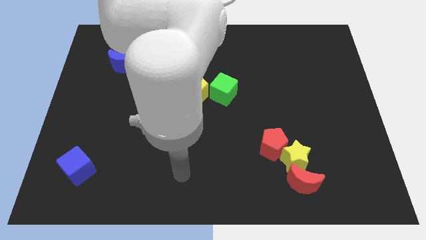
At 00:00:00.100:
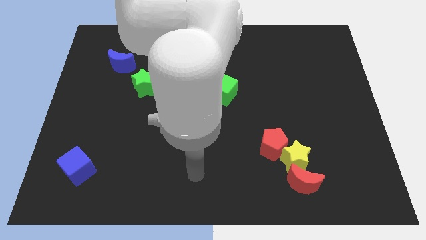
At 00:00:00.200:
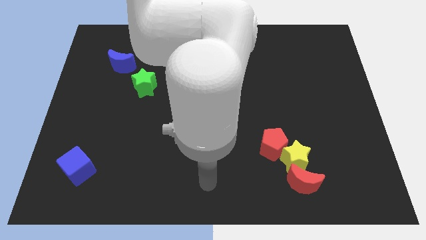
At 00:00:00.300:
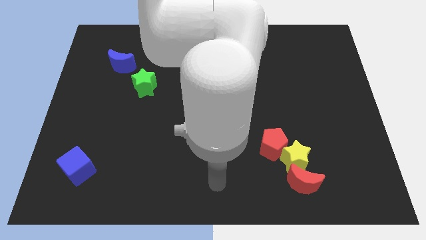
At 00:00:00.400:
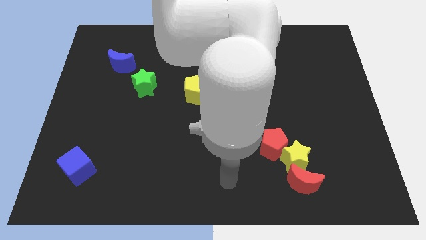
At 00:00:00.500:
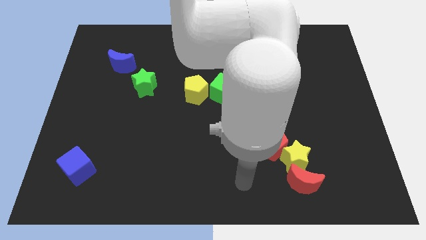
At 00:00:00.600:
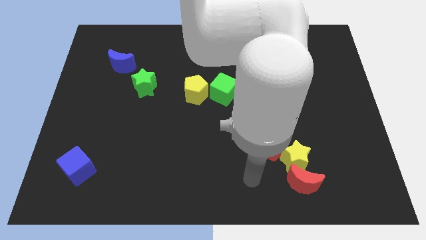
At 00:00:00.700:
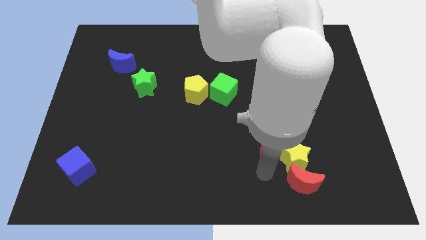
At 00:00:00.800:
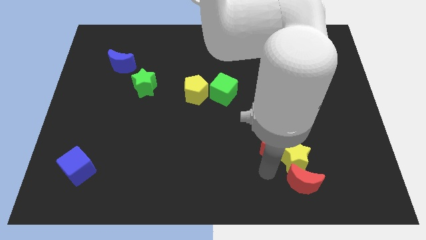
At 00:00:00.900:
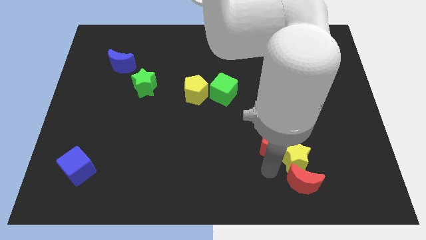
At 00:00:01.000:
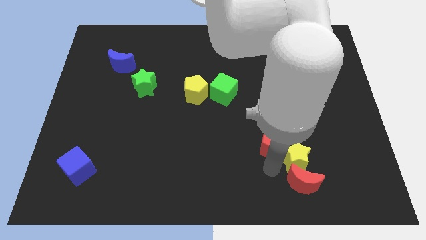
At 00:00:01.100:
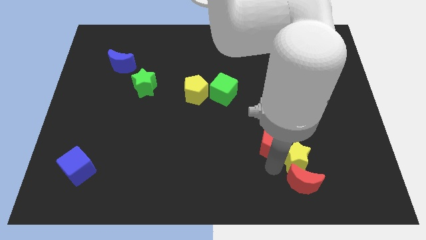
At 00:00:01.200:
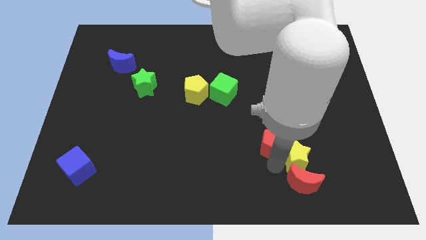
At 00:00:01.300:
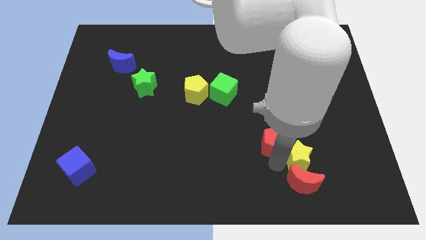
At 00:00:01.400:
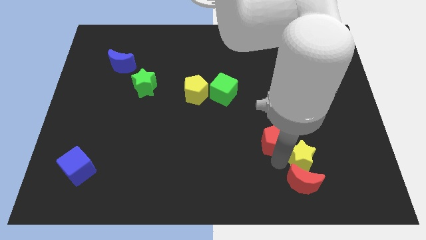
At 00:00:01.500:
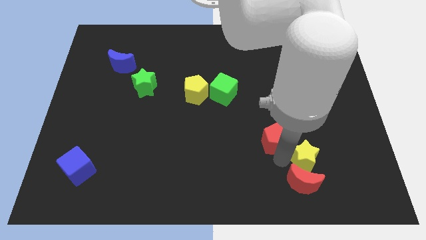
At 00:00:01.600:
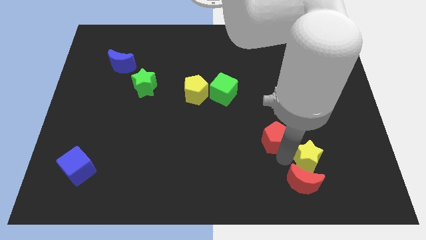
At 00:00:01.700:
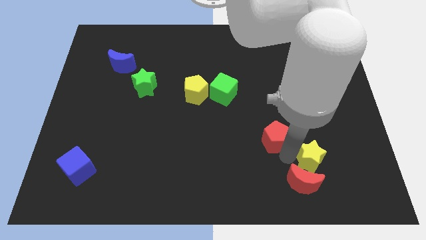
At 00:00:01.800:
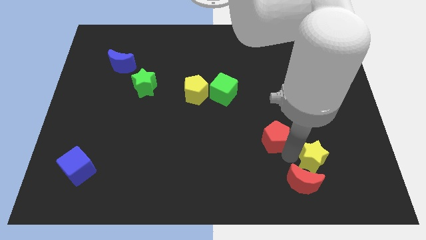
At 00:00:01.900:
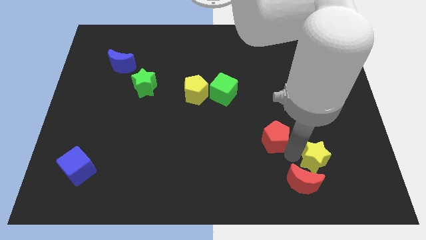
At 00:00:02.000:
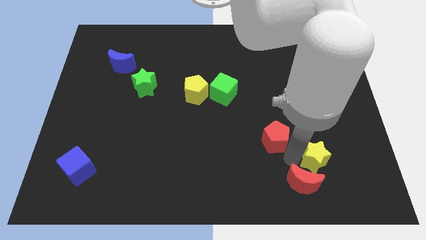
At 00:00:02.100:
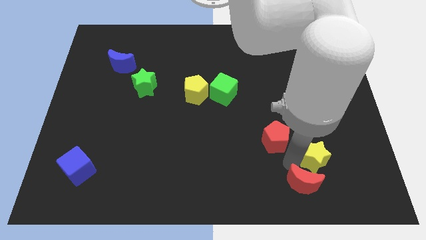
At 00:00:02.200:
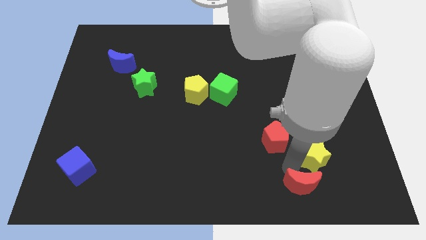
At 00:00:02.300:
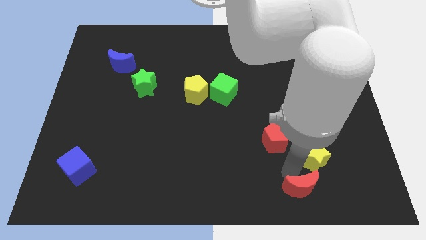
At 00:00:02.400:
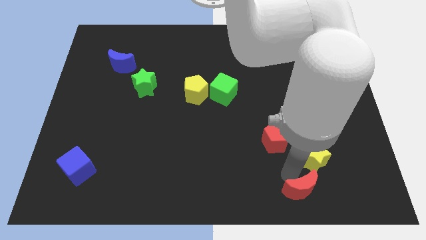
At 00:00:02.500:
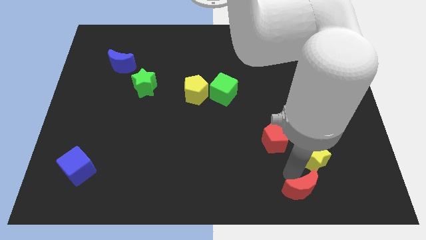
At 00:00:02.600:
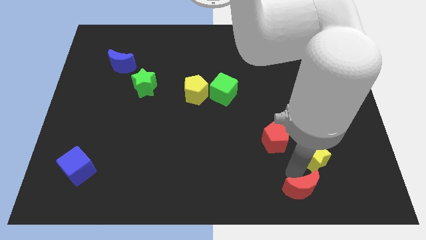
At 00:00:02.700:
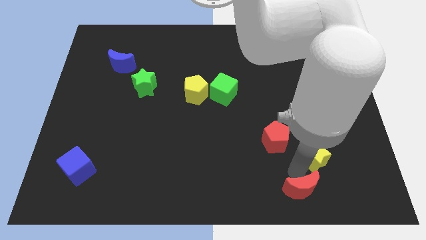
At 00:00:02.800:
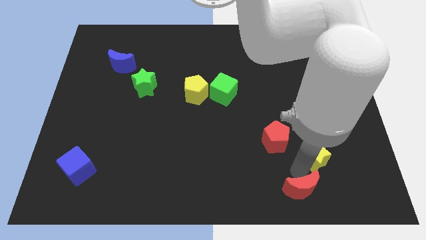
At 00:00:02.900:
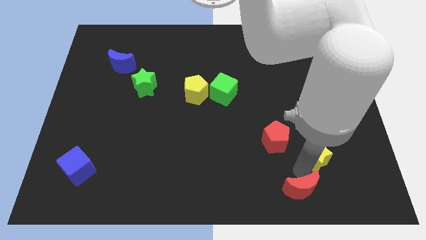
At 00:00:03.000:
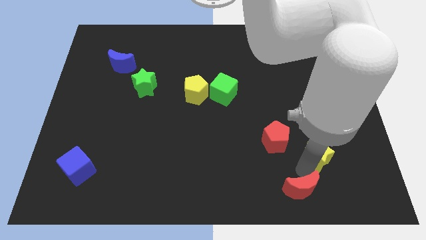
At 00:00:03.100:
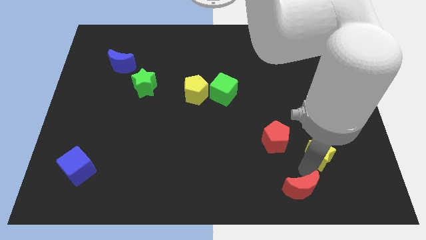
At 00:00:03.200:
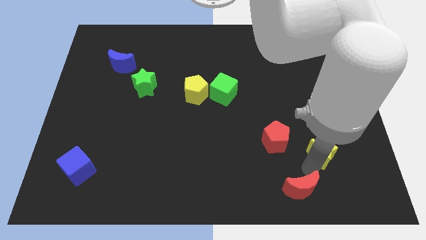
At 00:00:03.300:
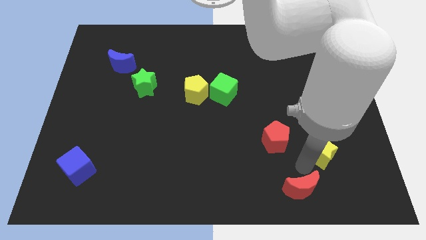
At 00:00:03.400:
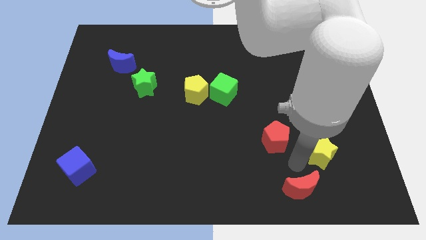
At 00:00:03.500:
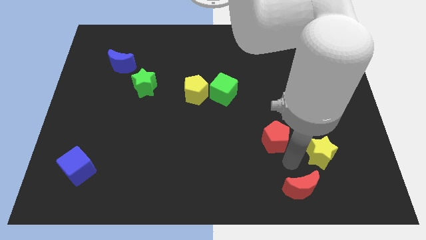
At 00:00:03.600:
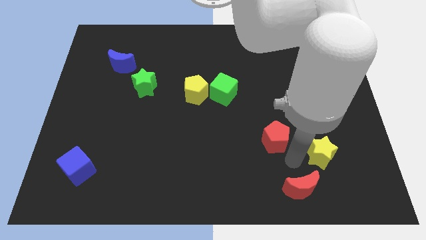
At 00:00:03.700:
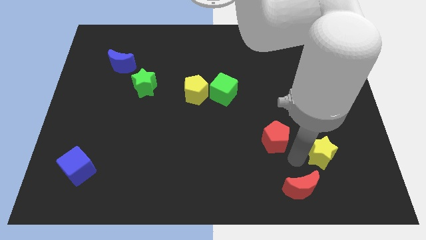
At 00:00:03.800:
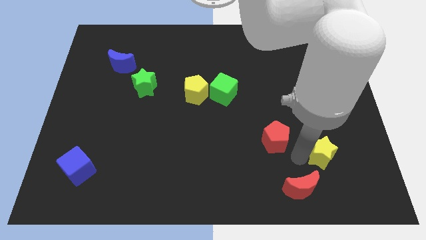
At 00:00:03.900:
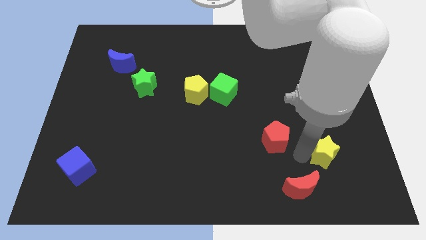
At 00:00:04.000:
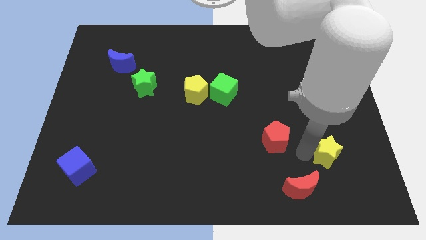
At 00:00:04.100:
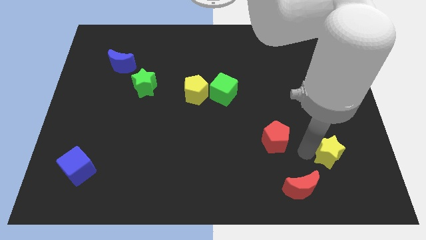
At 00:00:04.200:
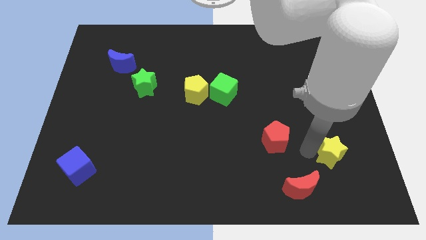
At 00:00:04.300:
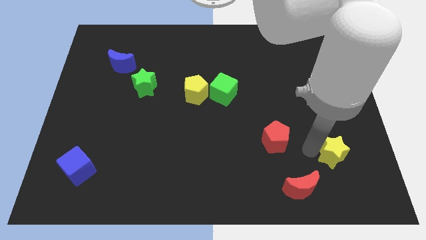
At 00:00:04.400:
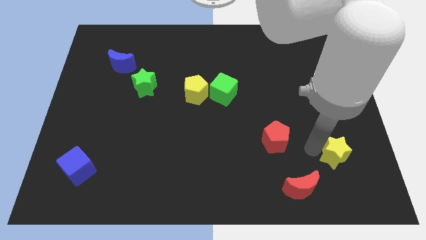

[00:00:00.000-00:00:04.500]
move the yellow star away from the red moon and red pentagon

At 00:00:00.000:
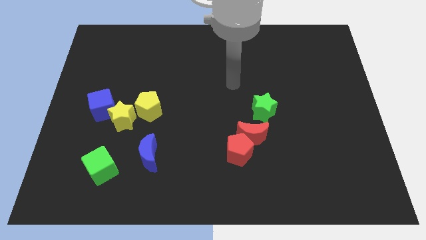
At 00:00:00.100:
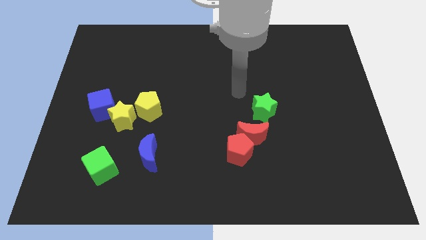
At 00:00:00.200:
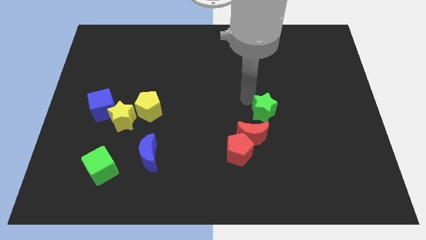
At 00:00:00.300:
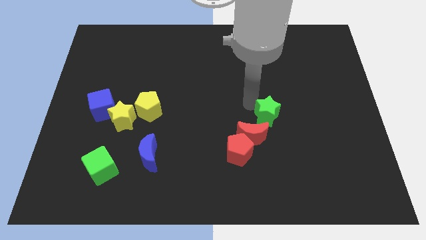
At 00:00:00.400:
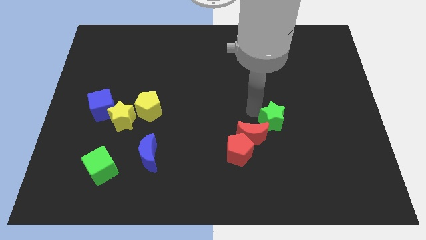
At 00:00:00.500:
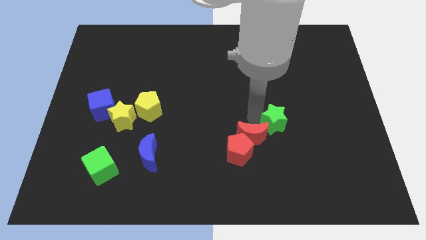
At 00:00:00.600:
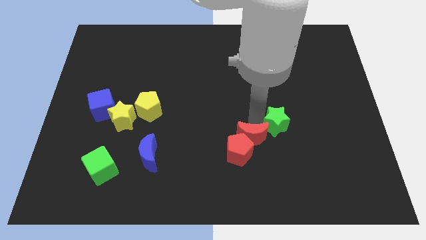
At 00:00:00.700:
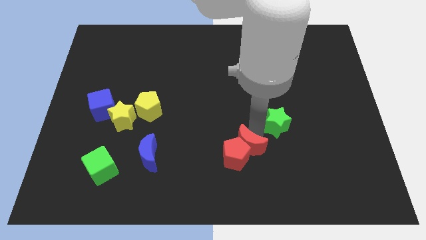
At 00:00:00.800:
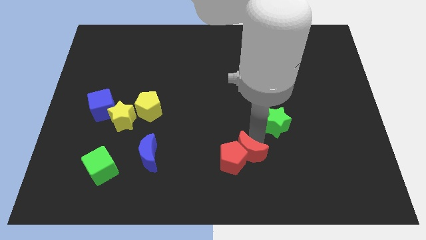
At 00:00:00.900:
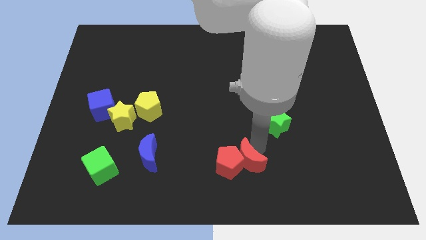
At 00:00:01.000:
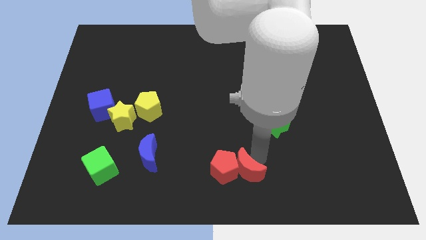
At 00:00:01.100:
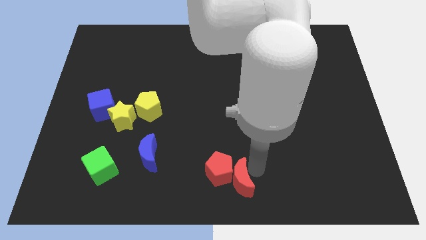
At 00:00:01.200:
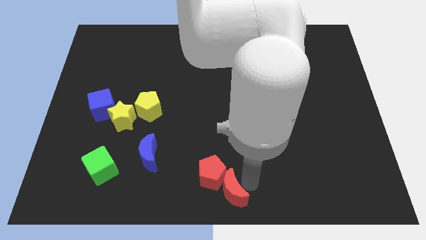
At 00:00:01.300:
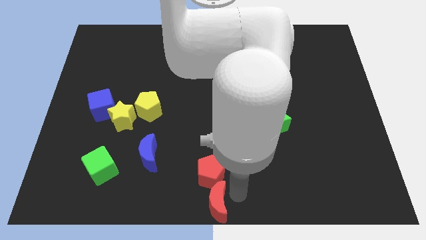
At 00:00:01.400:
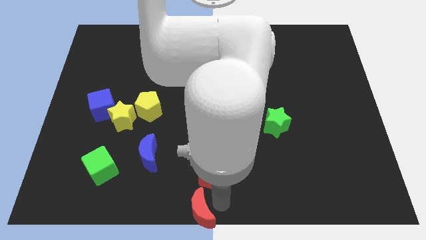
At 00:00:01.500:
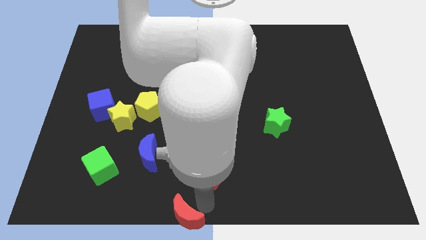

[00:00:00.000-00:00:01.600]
separate the red pentagon from the red moon

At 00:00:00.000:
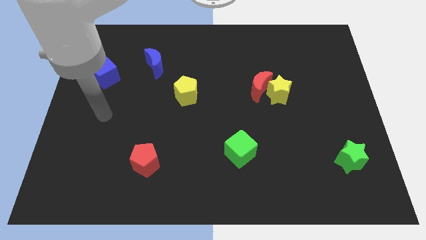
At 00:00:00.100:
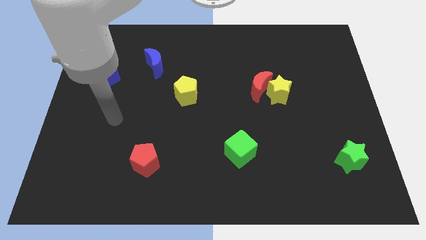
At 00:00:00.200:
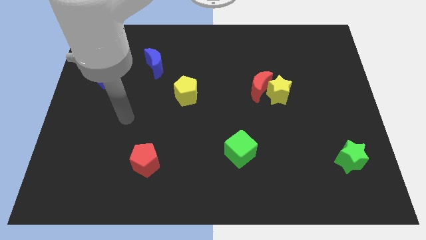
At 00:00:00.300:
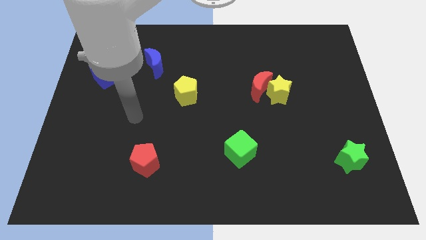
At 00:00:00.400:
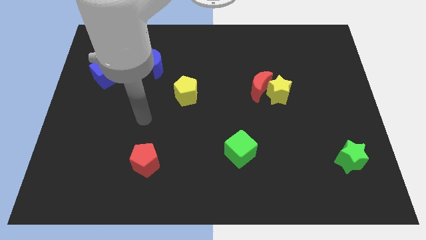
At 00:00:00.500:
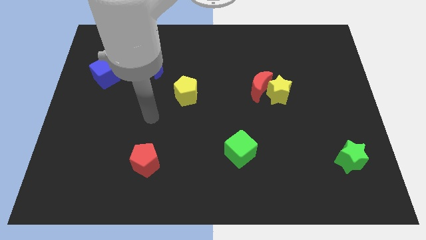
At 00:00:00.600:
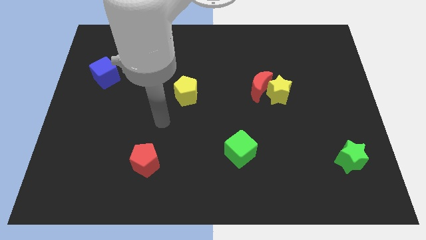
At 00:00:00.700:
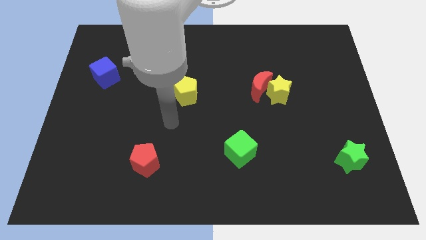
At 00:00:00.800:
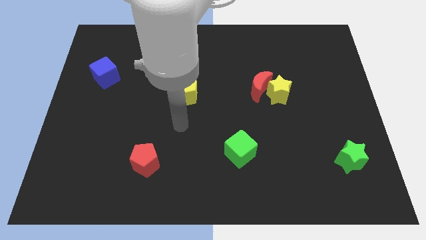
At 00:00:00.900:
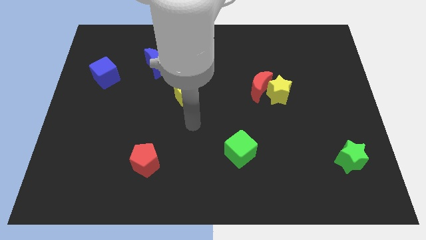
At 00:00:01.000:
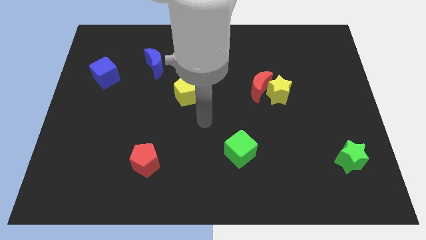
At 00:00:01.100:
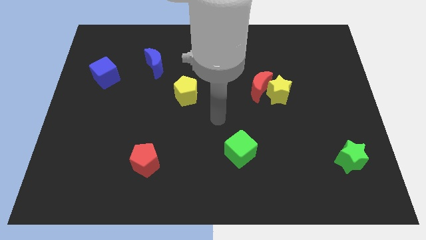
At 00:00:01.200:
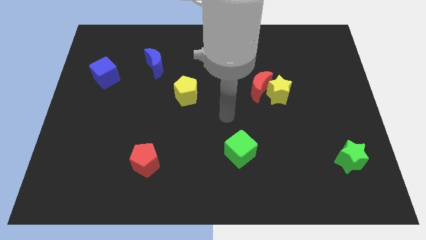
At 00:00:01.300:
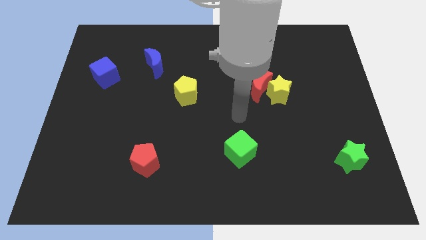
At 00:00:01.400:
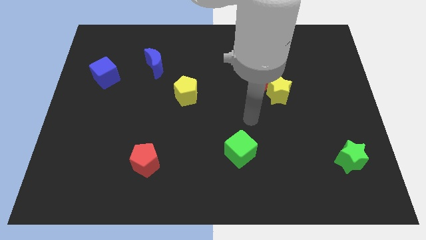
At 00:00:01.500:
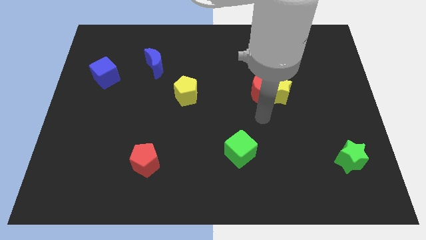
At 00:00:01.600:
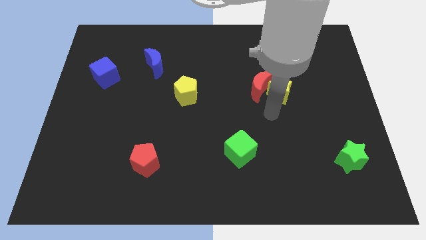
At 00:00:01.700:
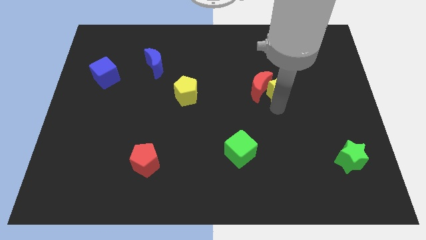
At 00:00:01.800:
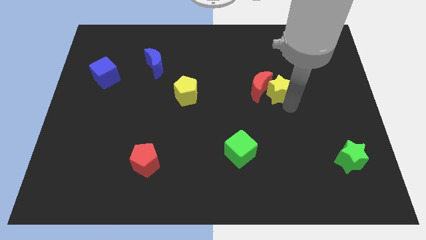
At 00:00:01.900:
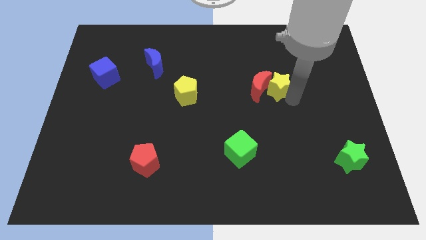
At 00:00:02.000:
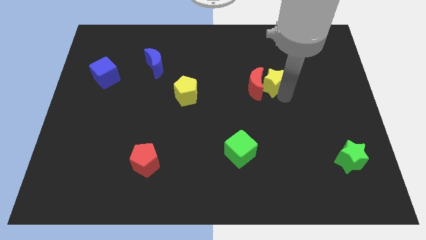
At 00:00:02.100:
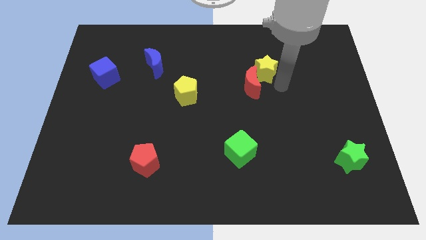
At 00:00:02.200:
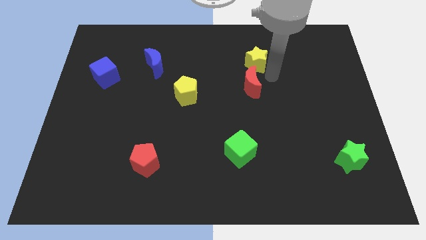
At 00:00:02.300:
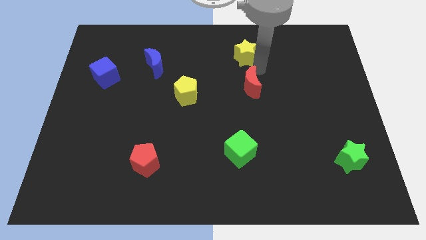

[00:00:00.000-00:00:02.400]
pull the red moon apart from the yellow star

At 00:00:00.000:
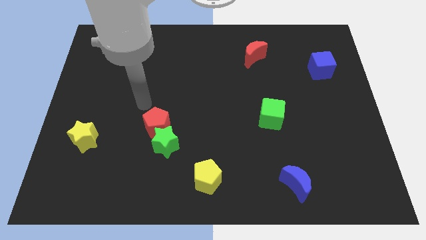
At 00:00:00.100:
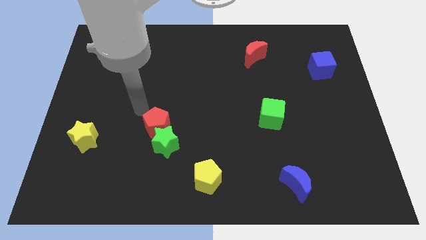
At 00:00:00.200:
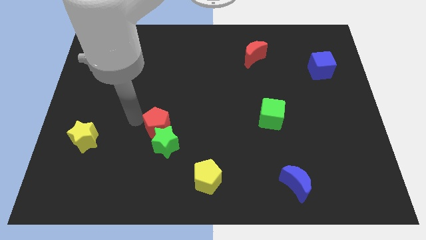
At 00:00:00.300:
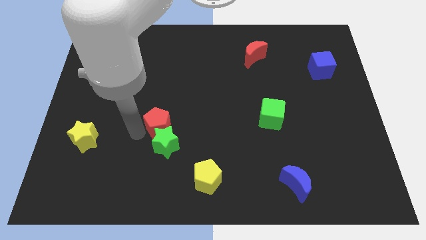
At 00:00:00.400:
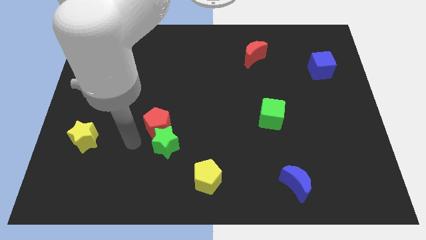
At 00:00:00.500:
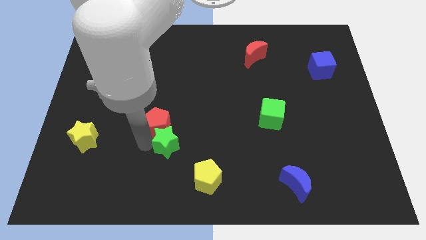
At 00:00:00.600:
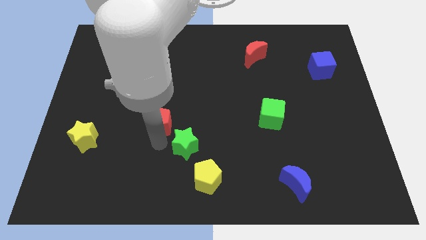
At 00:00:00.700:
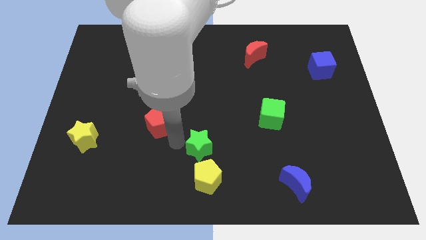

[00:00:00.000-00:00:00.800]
pull the red pentagon apart from the green star

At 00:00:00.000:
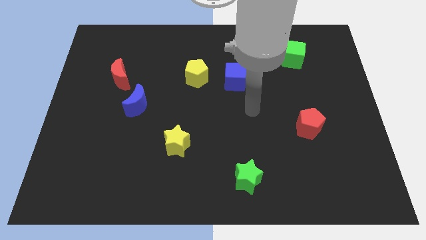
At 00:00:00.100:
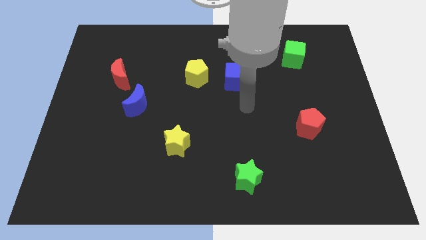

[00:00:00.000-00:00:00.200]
move the blue cube away from the yellow pentagon
